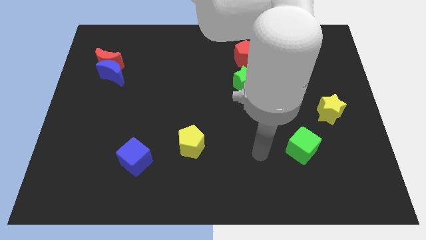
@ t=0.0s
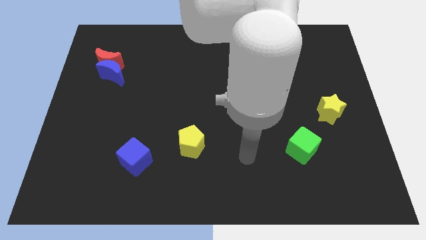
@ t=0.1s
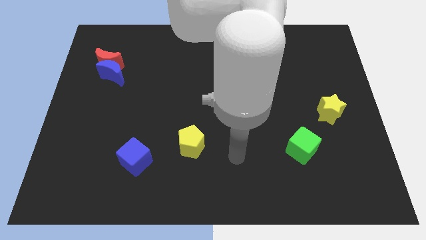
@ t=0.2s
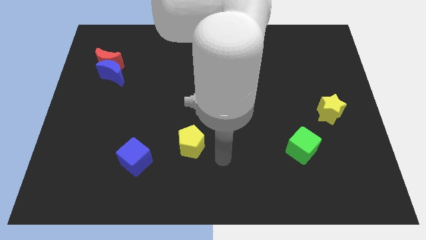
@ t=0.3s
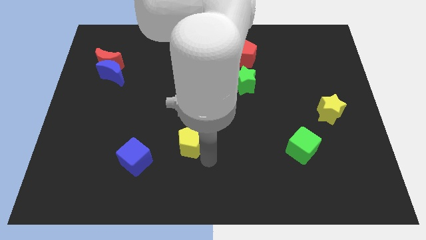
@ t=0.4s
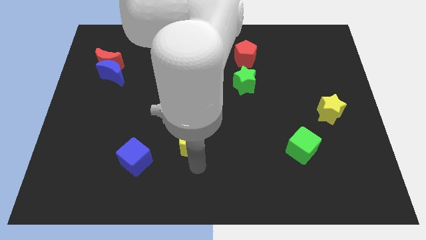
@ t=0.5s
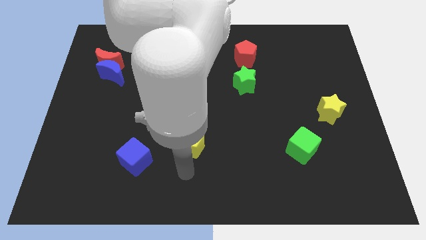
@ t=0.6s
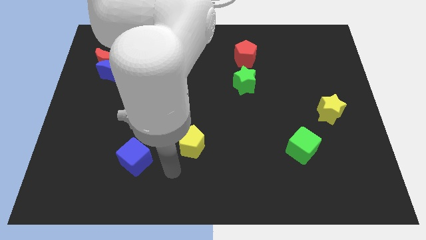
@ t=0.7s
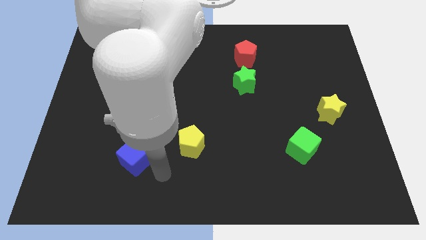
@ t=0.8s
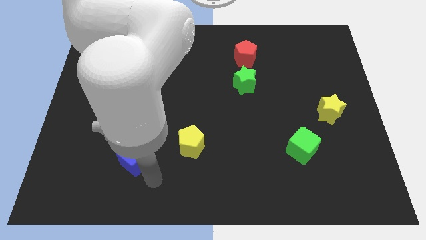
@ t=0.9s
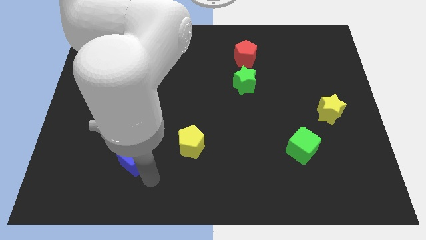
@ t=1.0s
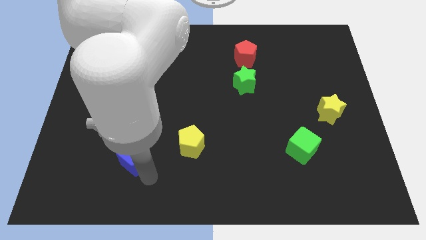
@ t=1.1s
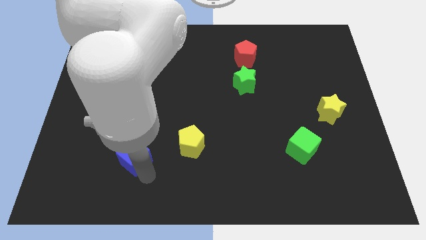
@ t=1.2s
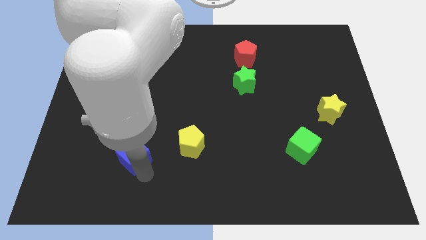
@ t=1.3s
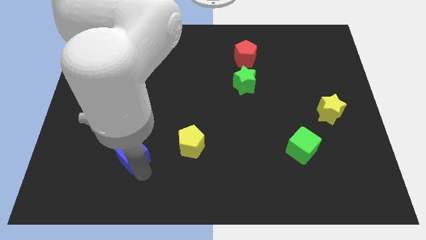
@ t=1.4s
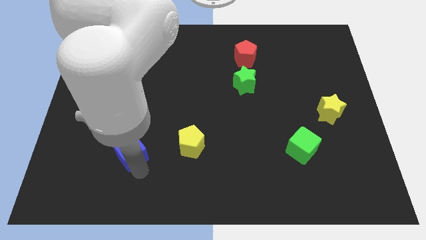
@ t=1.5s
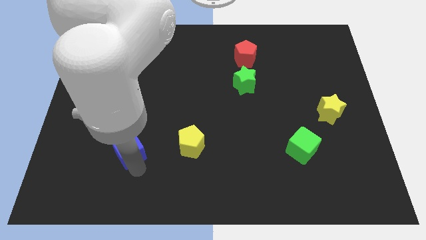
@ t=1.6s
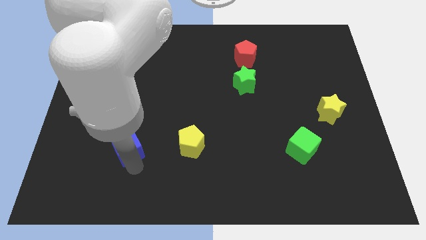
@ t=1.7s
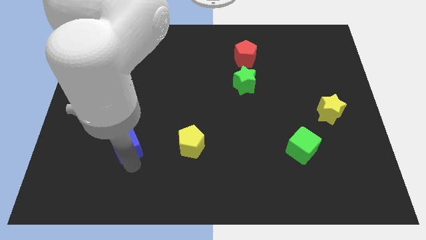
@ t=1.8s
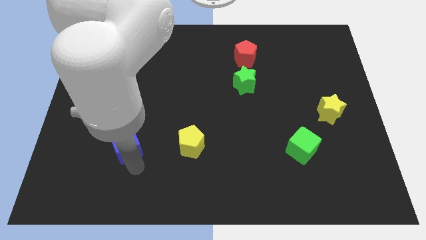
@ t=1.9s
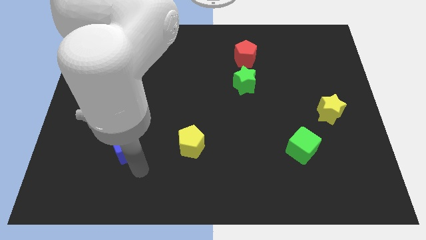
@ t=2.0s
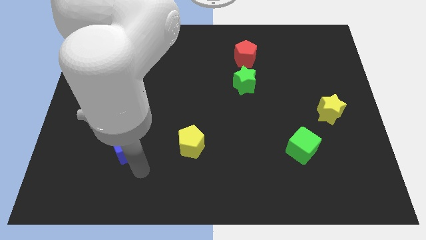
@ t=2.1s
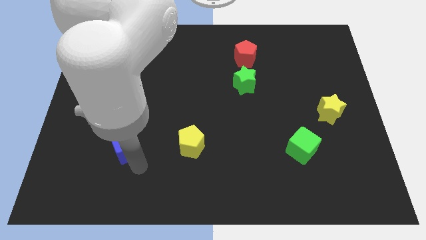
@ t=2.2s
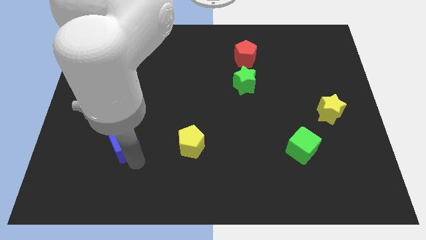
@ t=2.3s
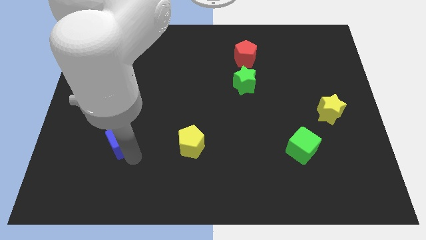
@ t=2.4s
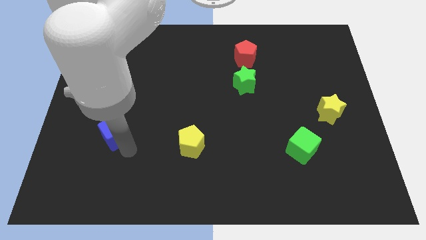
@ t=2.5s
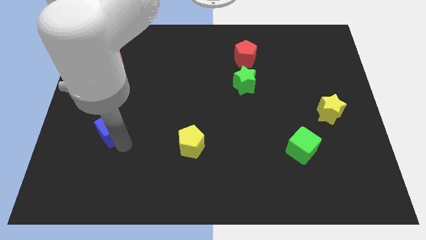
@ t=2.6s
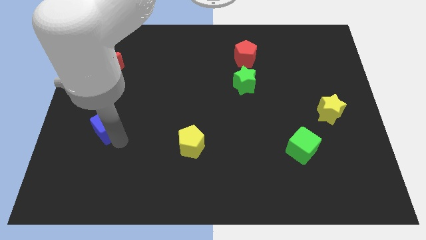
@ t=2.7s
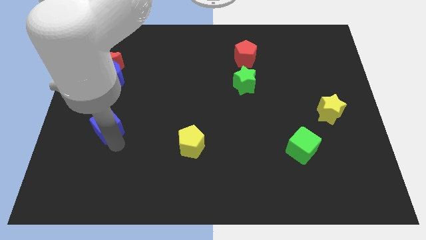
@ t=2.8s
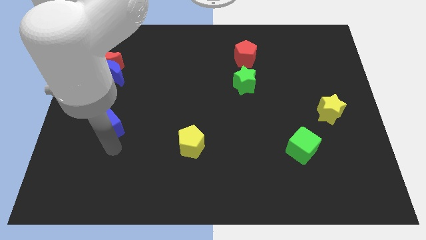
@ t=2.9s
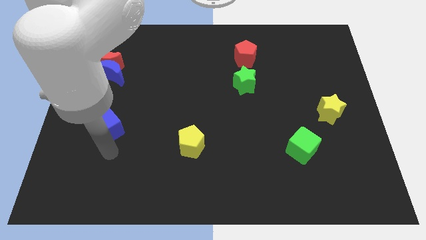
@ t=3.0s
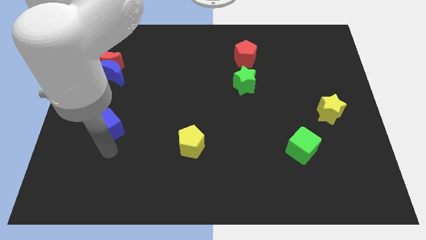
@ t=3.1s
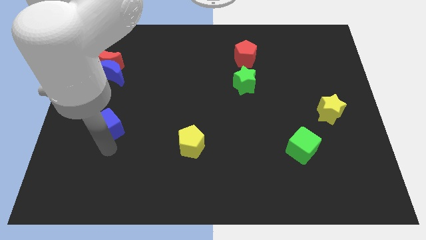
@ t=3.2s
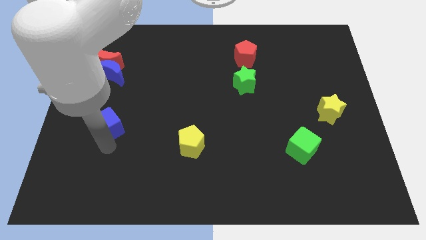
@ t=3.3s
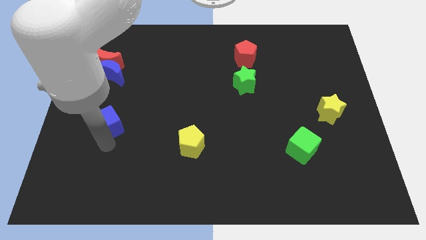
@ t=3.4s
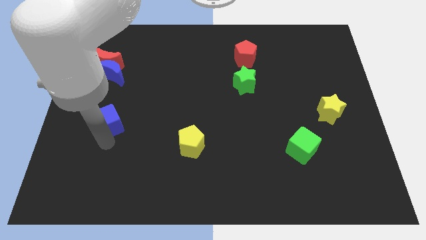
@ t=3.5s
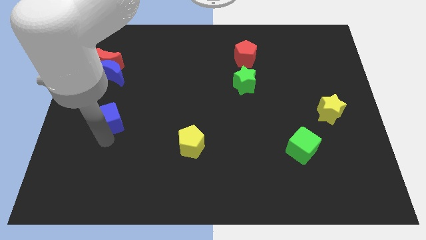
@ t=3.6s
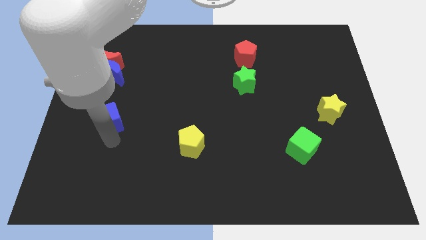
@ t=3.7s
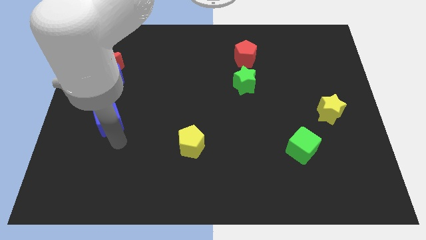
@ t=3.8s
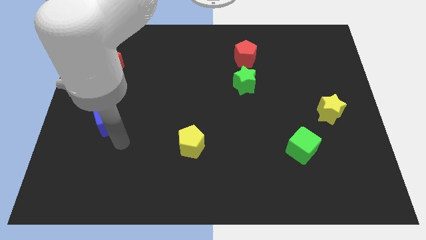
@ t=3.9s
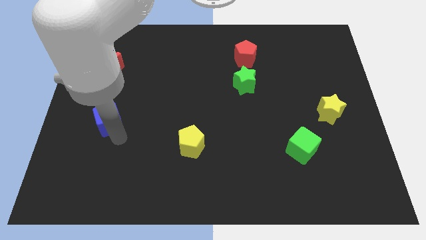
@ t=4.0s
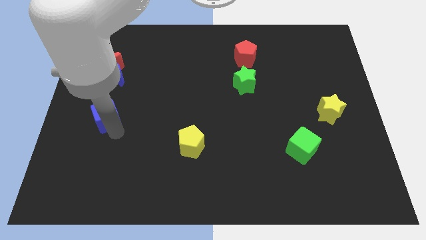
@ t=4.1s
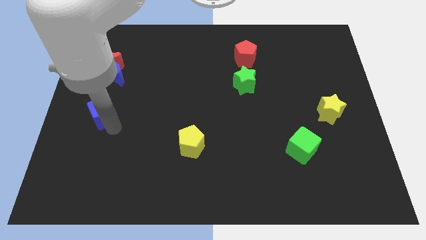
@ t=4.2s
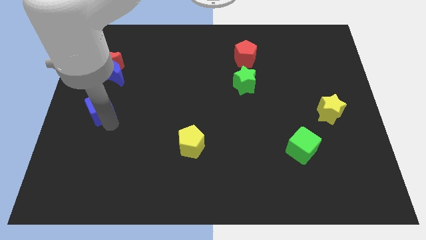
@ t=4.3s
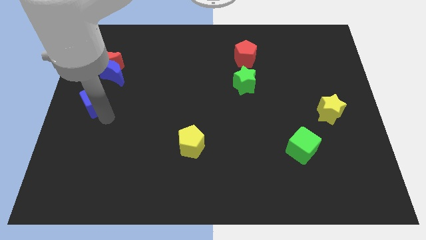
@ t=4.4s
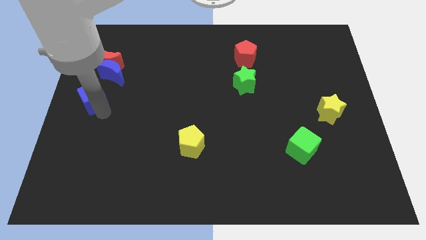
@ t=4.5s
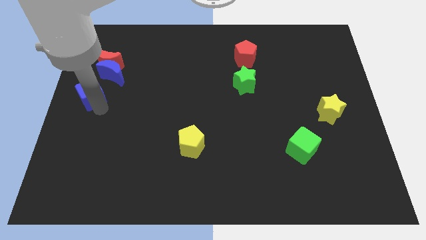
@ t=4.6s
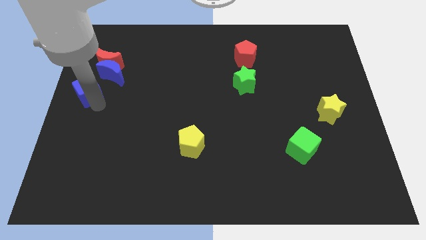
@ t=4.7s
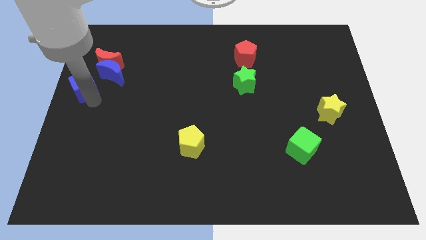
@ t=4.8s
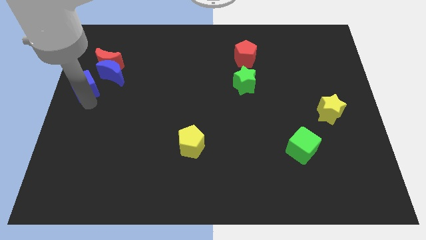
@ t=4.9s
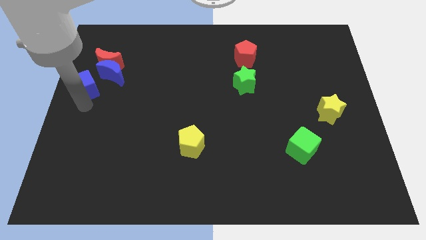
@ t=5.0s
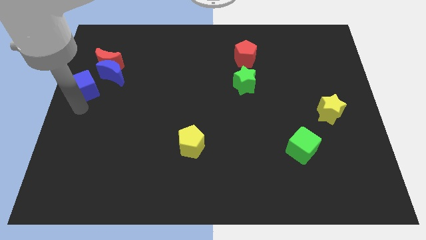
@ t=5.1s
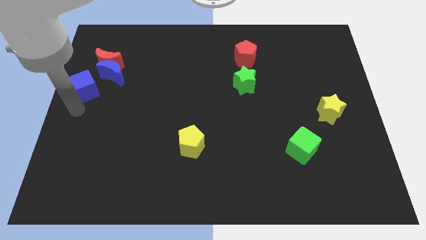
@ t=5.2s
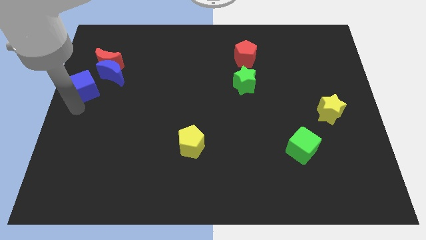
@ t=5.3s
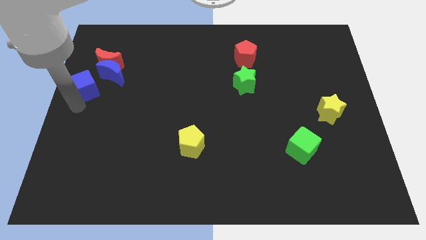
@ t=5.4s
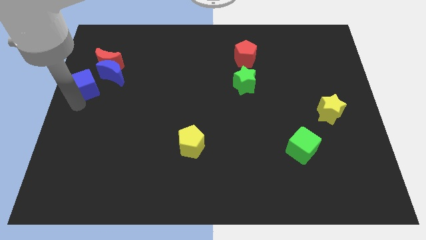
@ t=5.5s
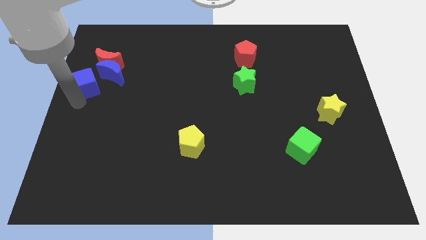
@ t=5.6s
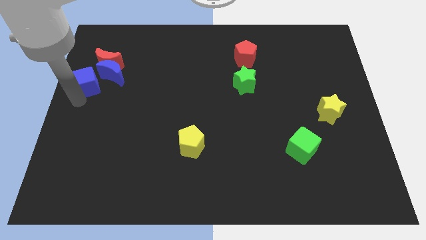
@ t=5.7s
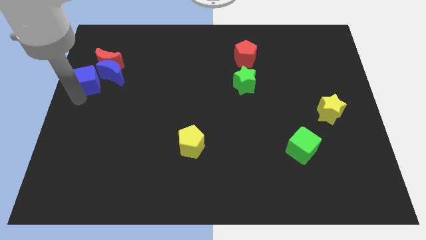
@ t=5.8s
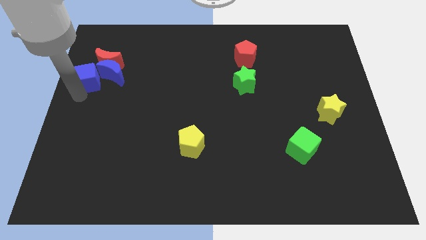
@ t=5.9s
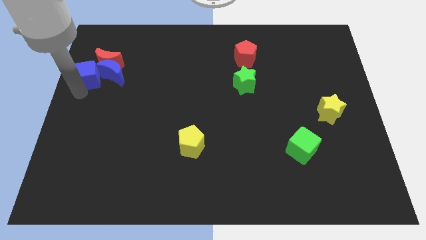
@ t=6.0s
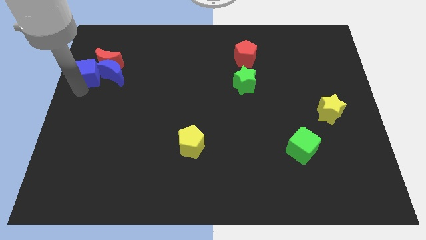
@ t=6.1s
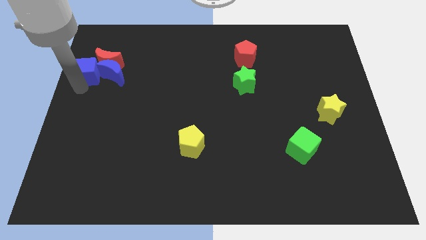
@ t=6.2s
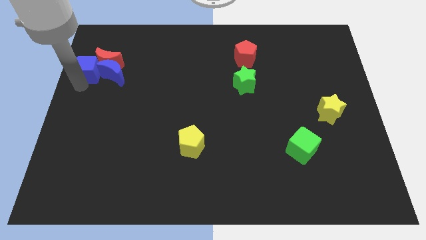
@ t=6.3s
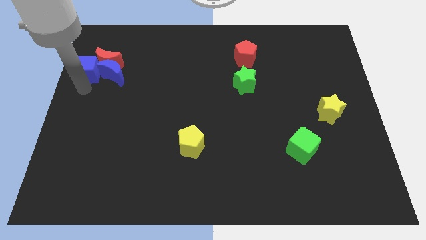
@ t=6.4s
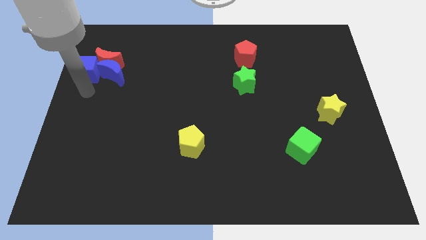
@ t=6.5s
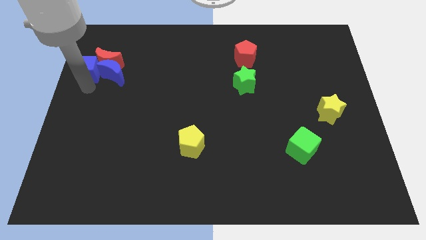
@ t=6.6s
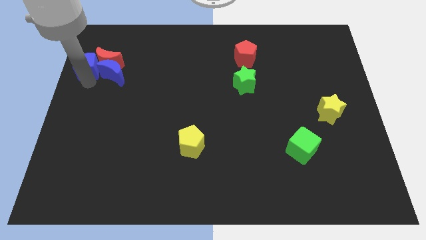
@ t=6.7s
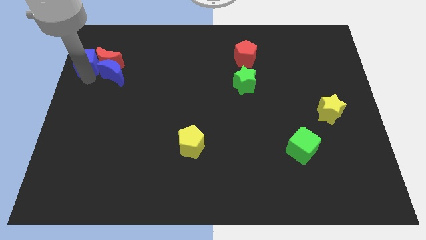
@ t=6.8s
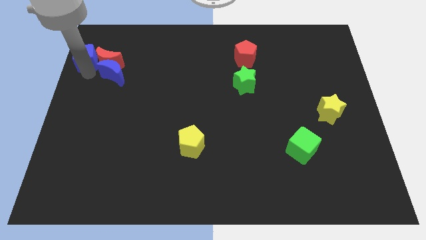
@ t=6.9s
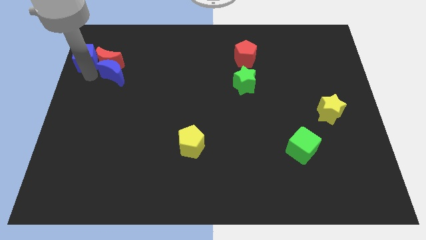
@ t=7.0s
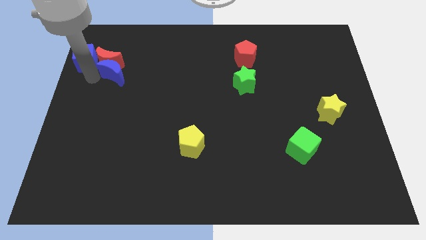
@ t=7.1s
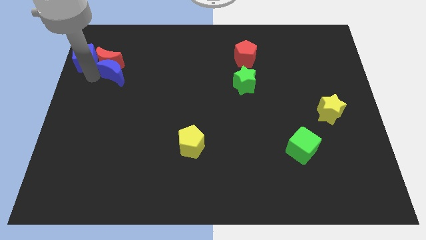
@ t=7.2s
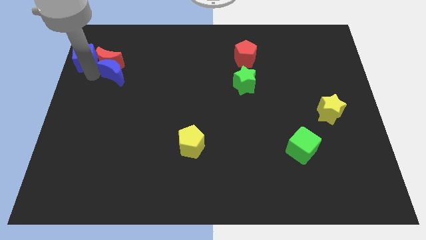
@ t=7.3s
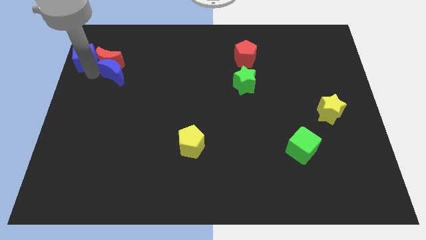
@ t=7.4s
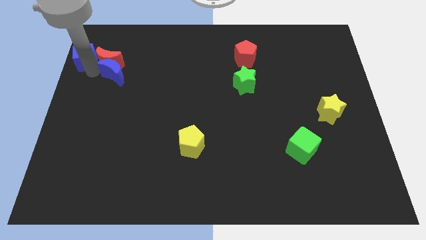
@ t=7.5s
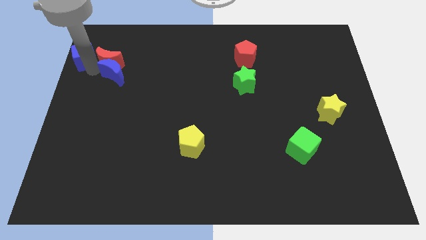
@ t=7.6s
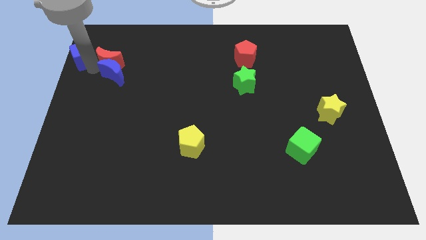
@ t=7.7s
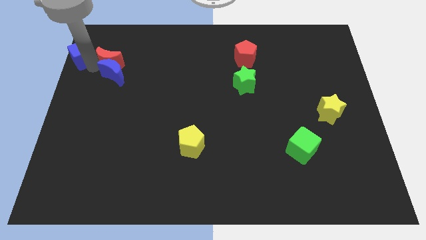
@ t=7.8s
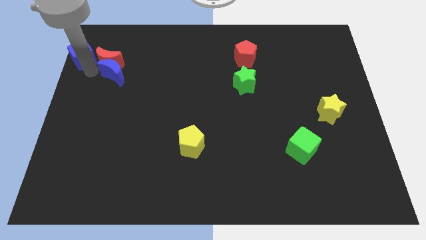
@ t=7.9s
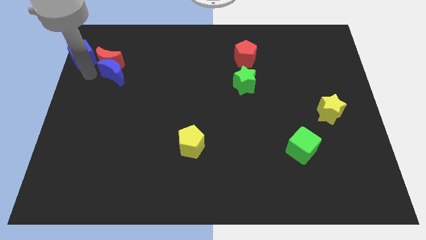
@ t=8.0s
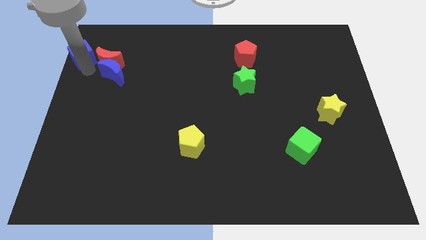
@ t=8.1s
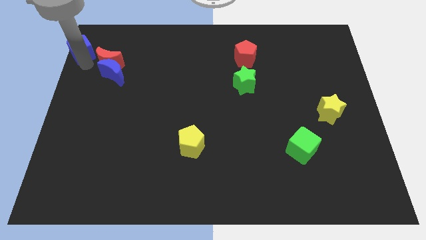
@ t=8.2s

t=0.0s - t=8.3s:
move the blue cube to the top left
